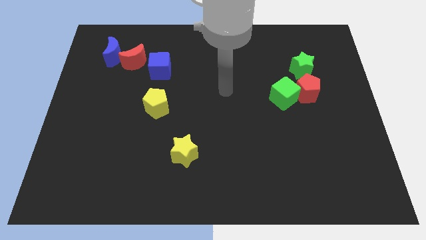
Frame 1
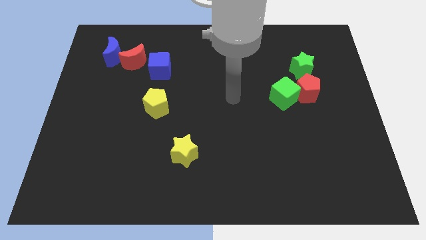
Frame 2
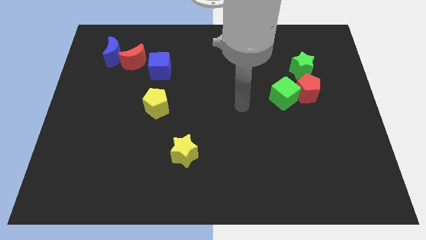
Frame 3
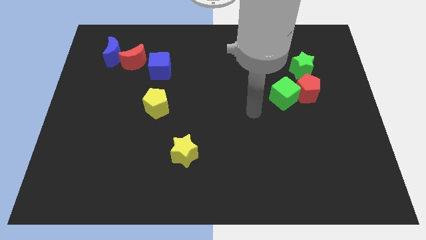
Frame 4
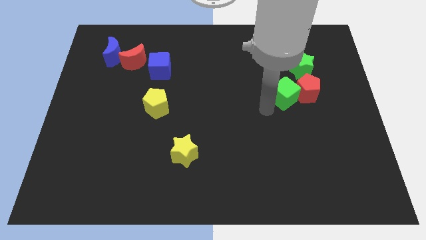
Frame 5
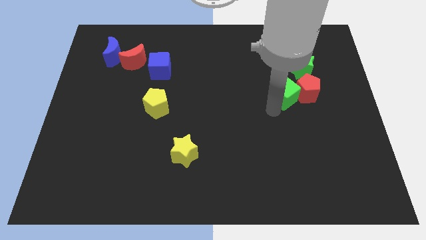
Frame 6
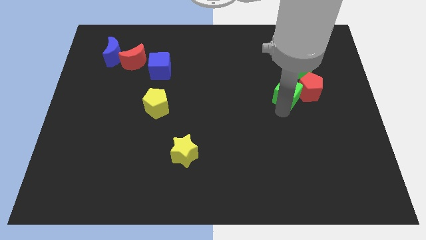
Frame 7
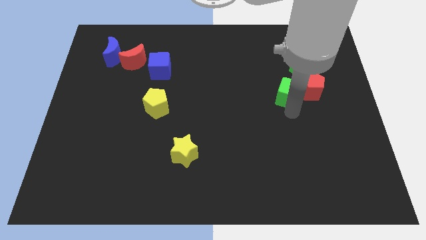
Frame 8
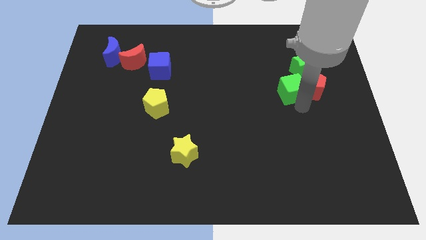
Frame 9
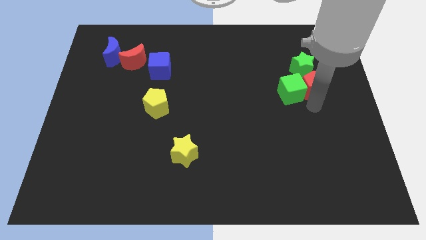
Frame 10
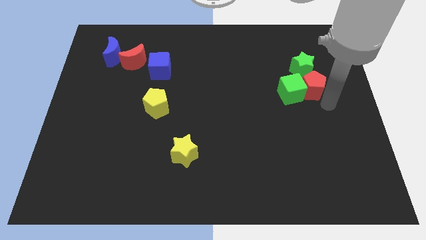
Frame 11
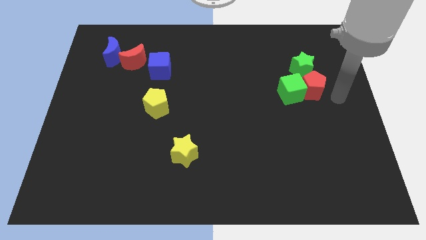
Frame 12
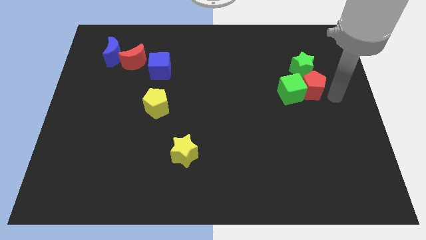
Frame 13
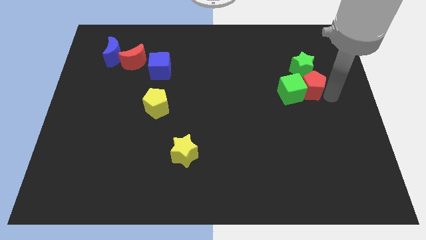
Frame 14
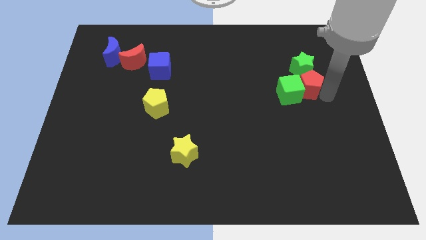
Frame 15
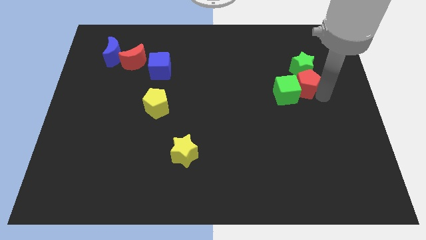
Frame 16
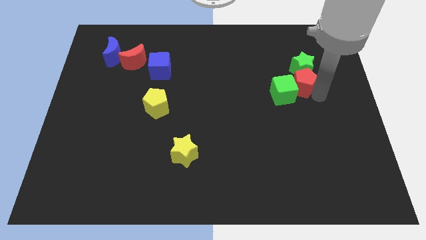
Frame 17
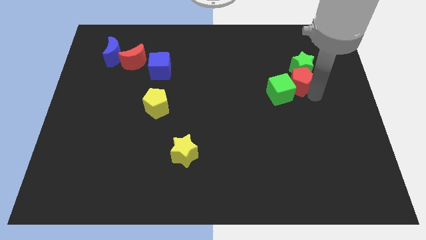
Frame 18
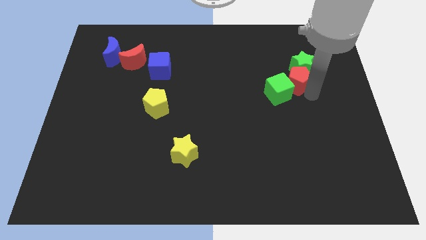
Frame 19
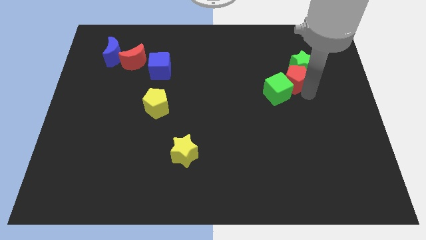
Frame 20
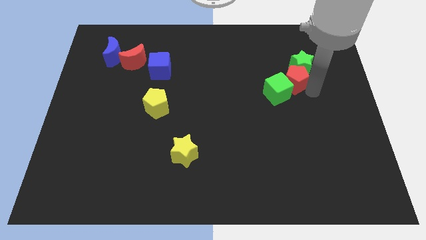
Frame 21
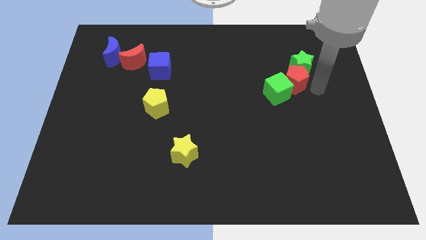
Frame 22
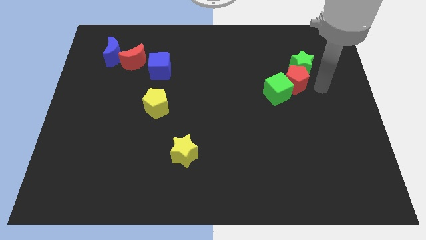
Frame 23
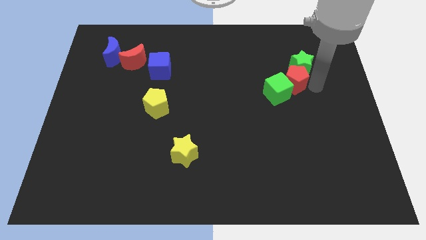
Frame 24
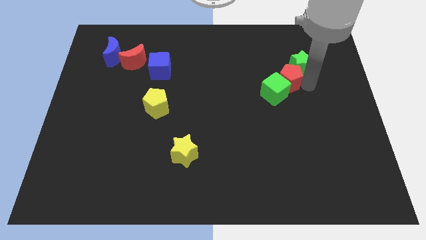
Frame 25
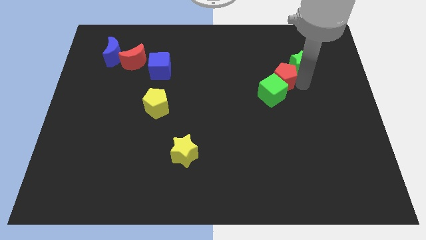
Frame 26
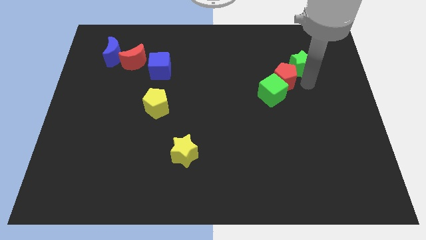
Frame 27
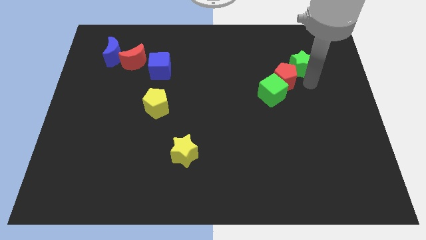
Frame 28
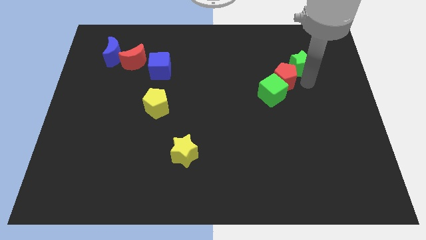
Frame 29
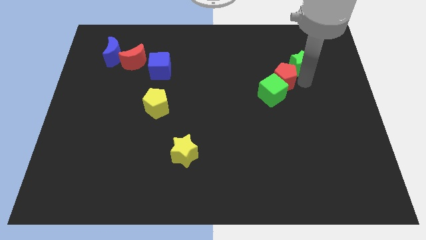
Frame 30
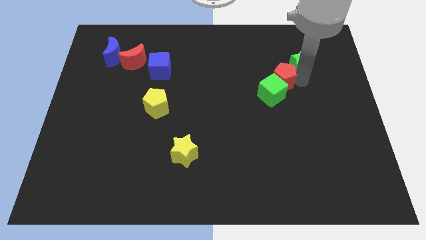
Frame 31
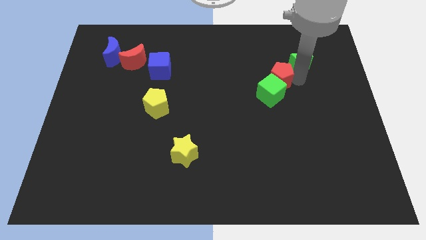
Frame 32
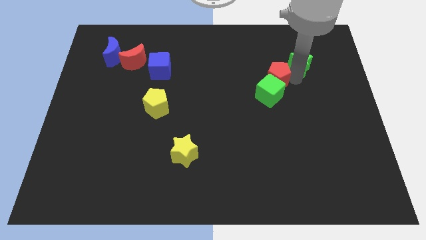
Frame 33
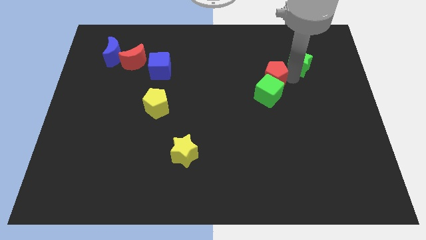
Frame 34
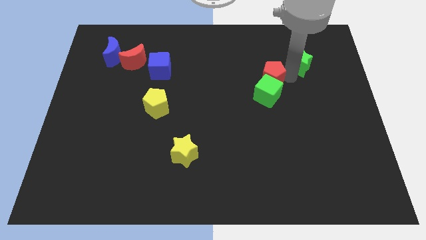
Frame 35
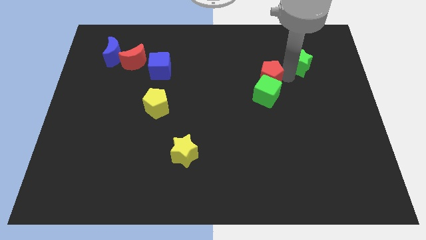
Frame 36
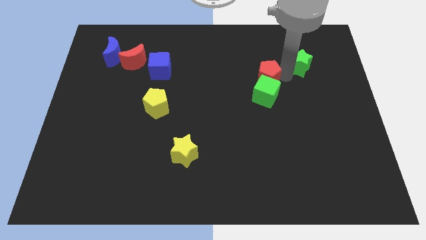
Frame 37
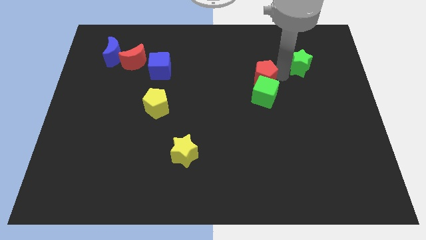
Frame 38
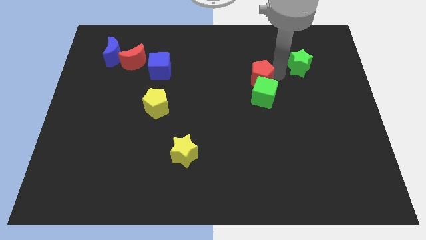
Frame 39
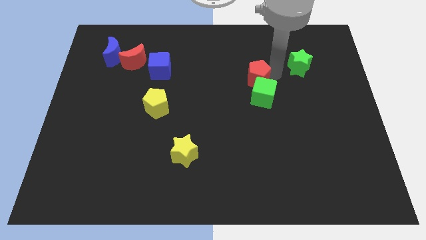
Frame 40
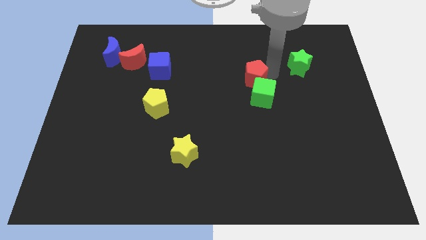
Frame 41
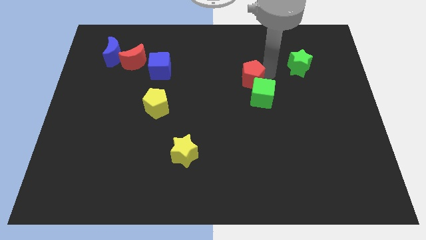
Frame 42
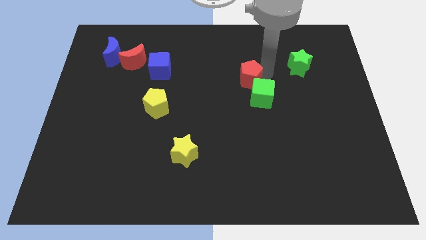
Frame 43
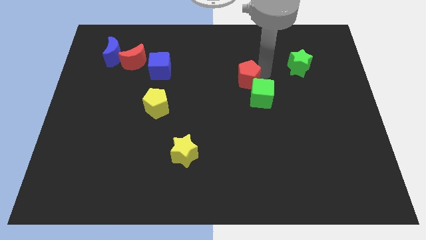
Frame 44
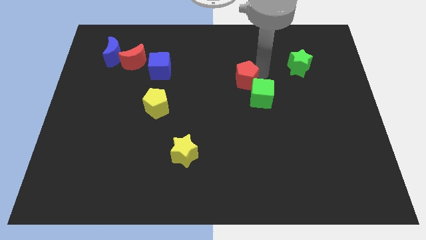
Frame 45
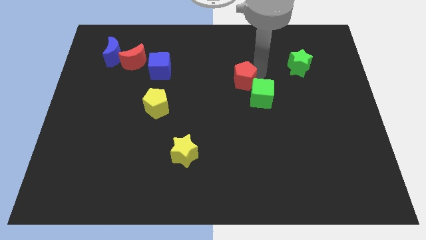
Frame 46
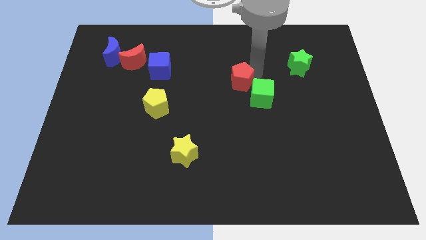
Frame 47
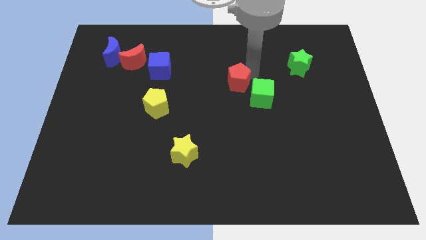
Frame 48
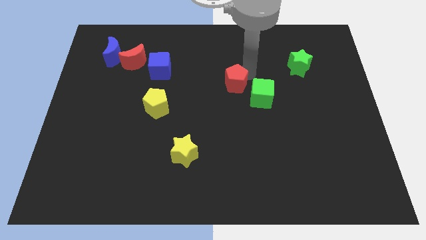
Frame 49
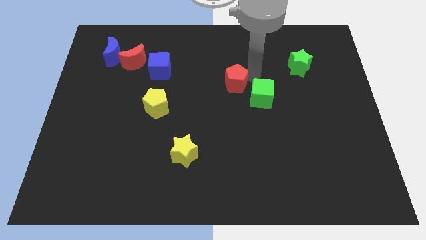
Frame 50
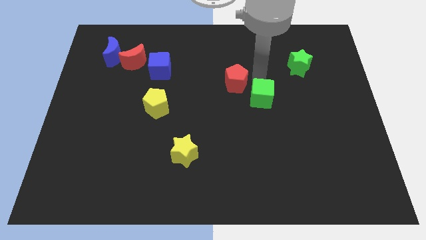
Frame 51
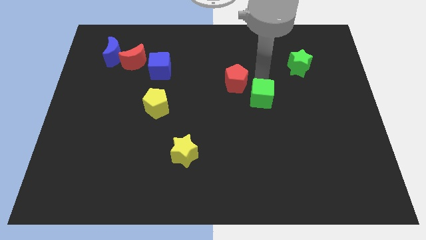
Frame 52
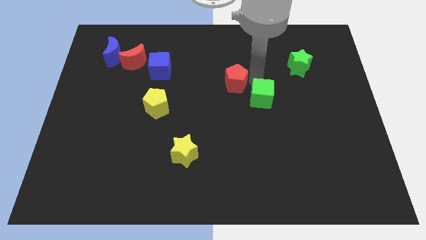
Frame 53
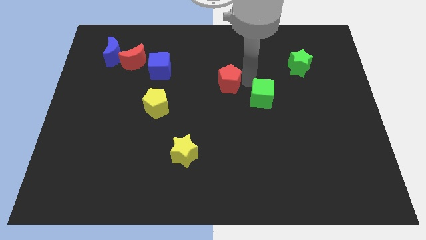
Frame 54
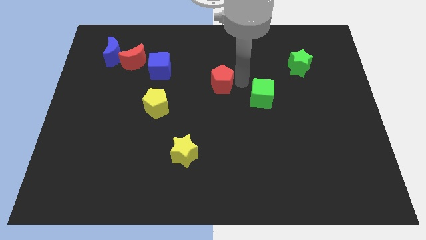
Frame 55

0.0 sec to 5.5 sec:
push the red pentagon to the left

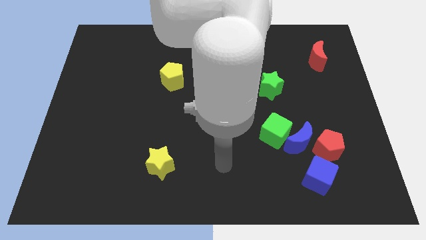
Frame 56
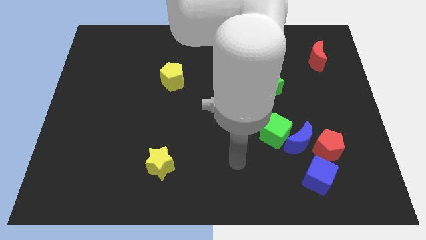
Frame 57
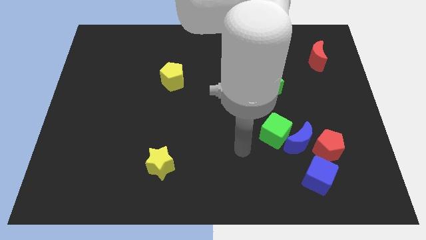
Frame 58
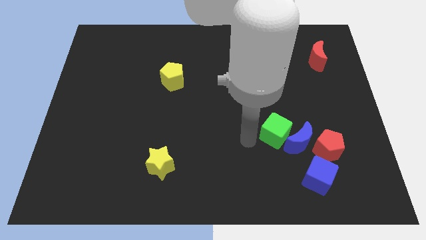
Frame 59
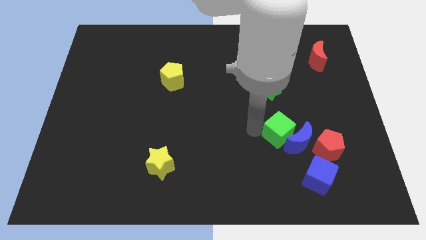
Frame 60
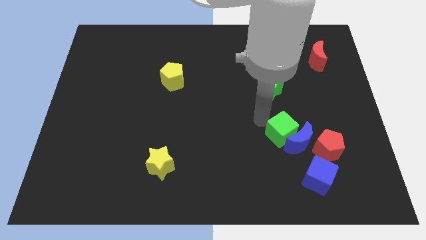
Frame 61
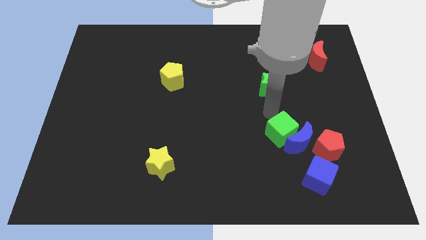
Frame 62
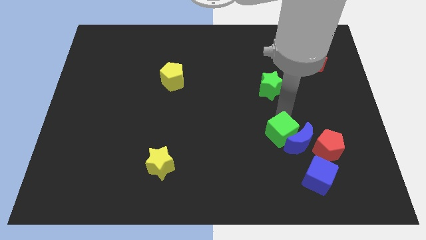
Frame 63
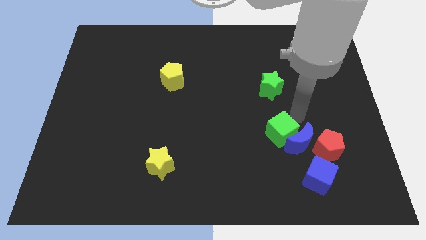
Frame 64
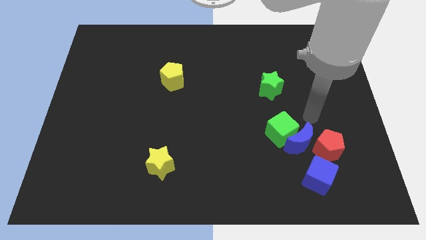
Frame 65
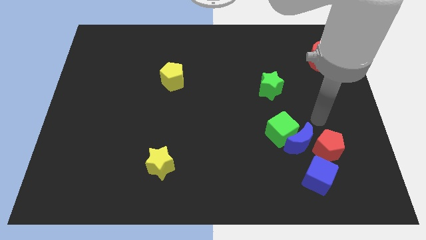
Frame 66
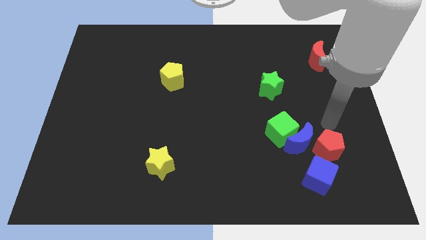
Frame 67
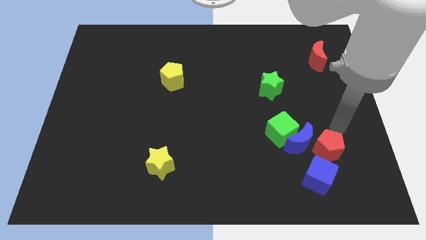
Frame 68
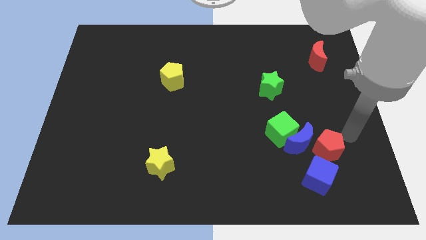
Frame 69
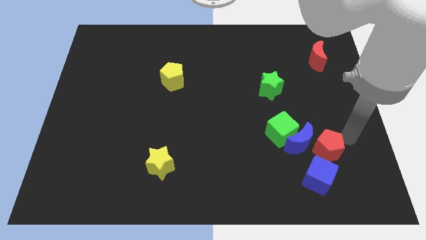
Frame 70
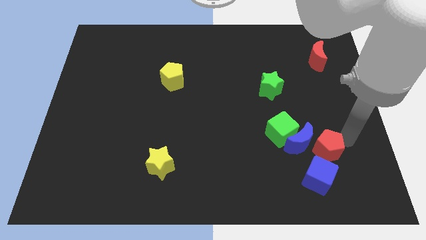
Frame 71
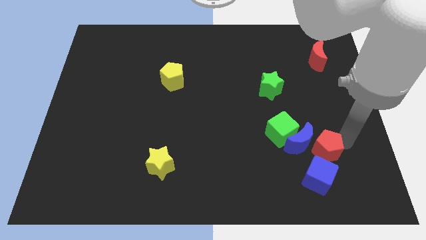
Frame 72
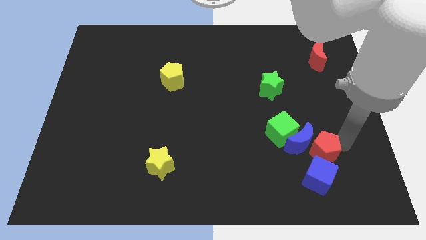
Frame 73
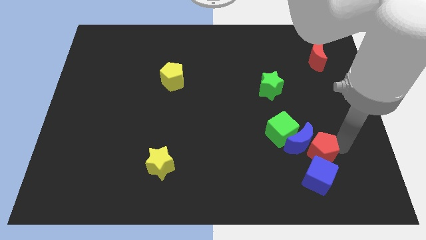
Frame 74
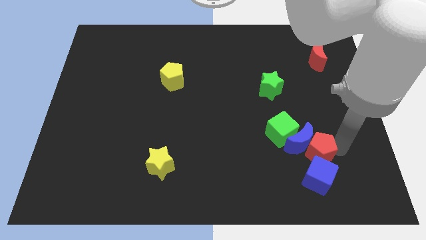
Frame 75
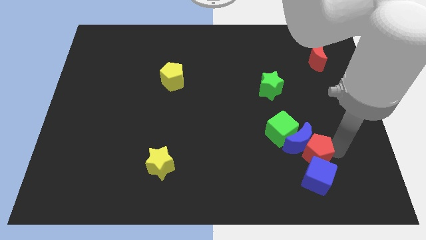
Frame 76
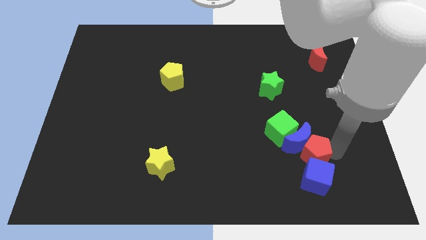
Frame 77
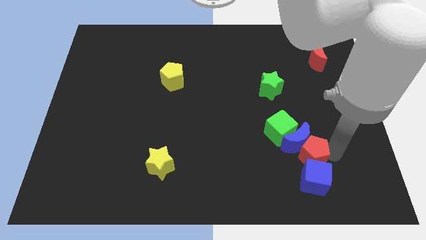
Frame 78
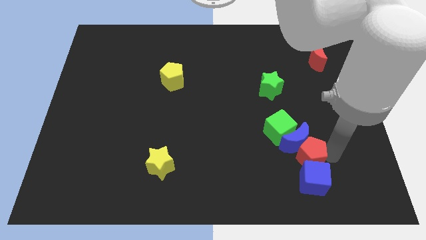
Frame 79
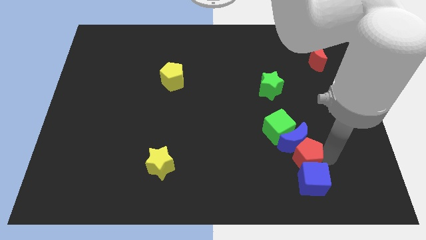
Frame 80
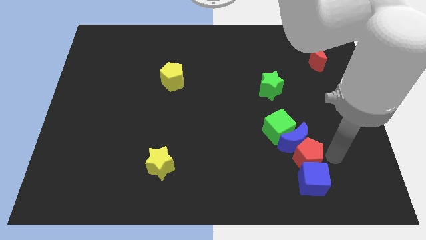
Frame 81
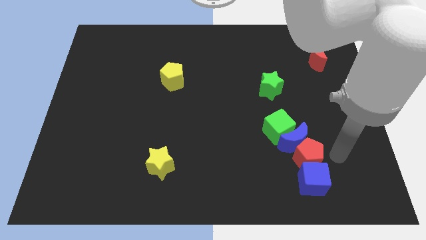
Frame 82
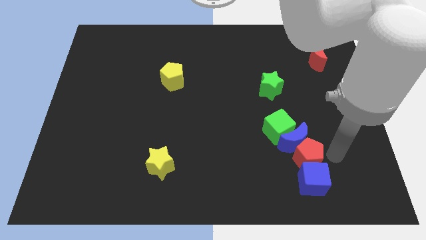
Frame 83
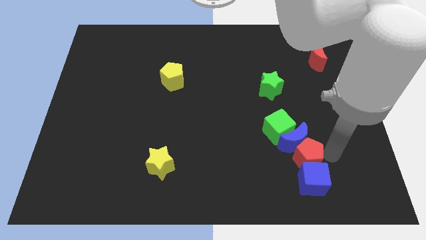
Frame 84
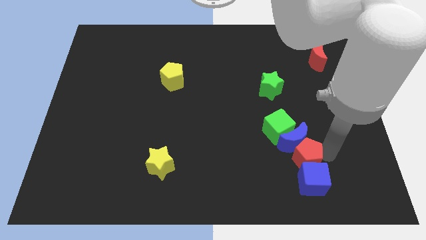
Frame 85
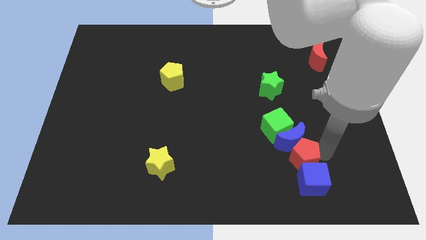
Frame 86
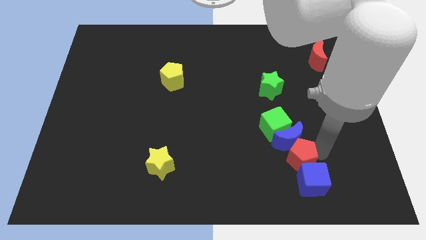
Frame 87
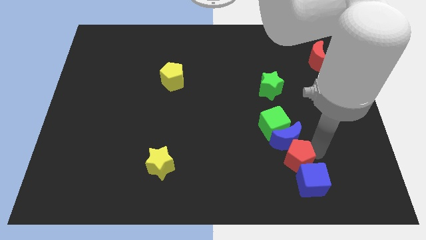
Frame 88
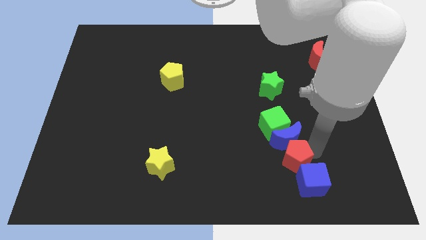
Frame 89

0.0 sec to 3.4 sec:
push the red pentagon slightly left
